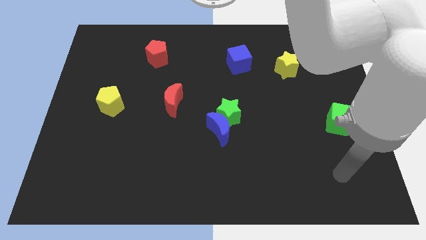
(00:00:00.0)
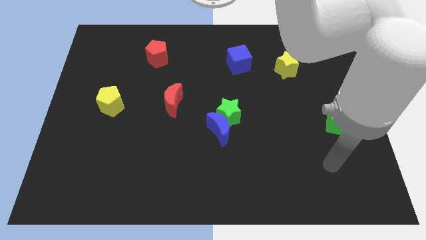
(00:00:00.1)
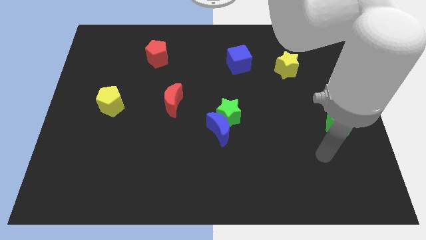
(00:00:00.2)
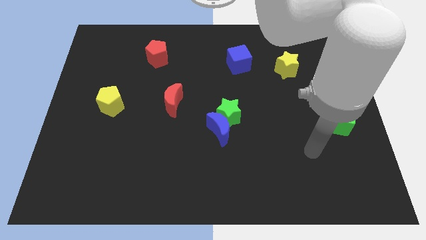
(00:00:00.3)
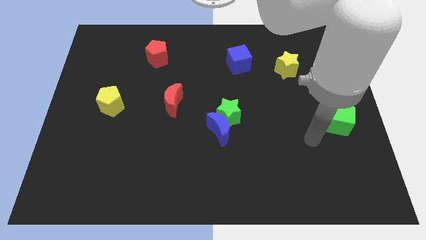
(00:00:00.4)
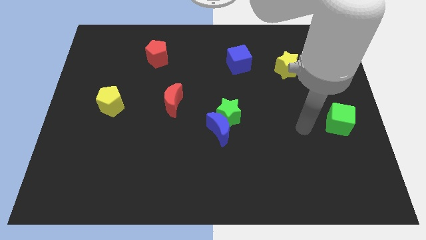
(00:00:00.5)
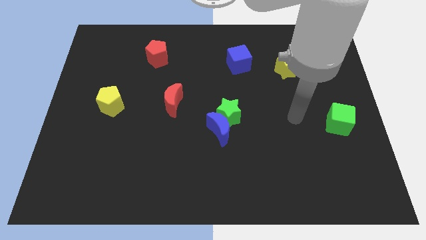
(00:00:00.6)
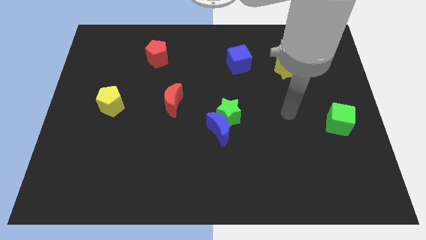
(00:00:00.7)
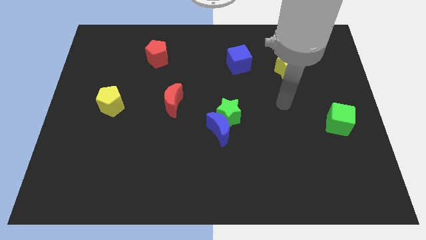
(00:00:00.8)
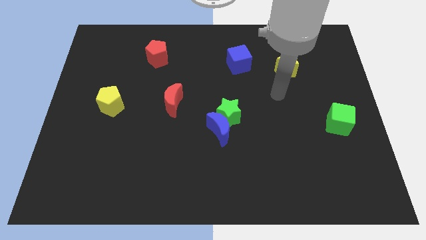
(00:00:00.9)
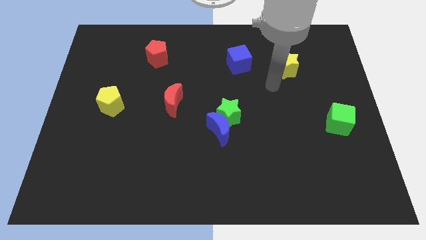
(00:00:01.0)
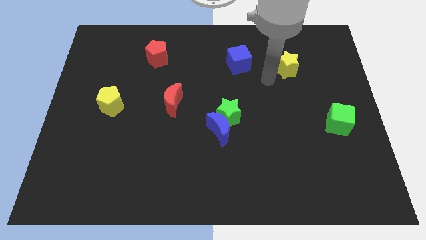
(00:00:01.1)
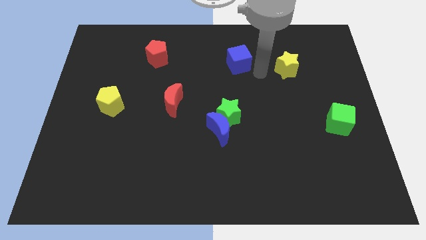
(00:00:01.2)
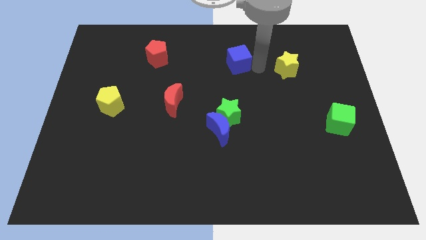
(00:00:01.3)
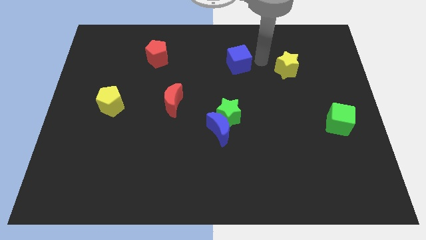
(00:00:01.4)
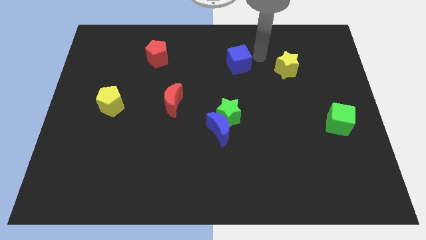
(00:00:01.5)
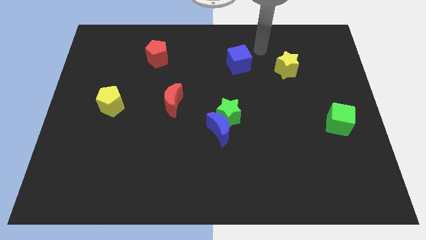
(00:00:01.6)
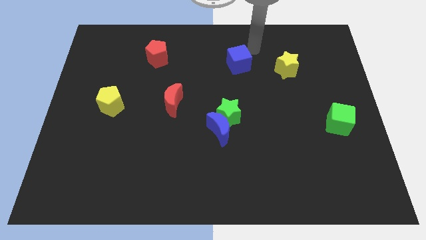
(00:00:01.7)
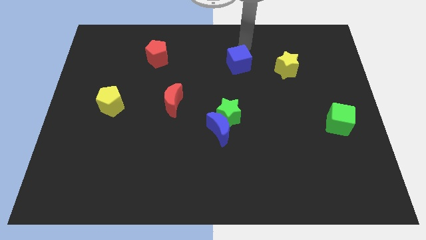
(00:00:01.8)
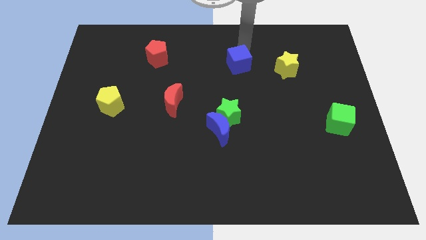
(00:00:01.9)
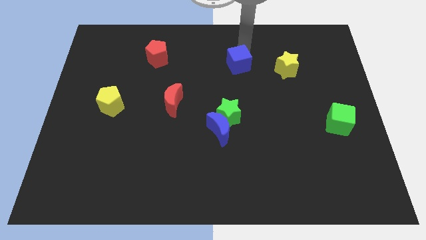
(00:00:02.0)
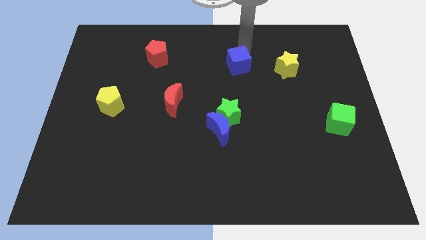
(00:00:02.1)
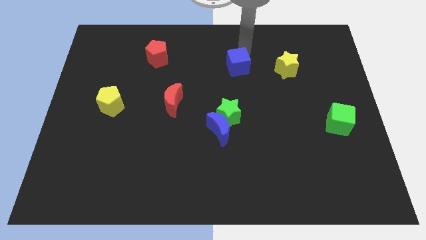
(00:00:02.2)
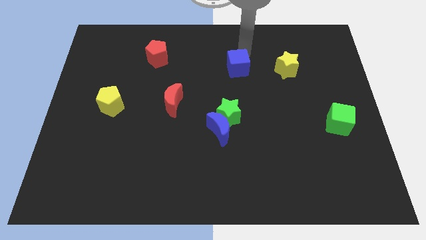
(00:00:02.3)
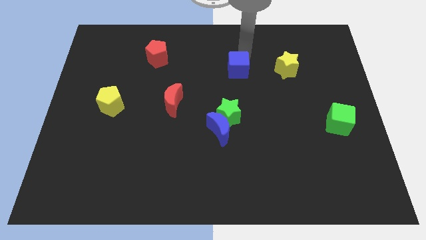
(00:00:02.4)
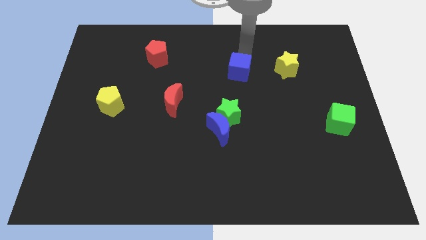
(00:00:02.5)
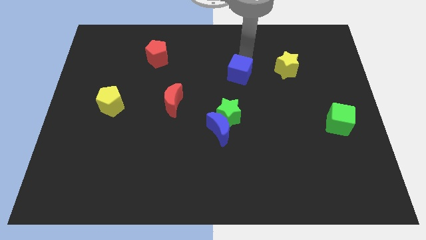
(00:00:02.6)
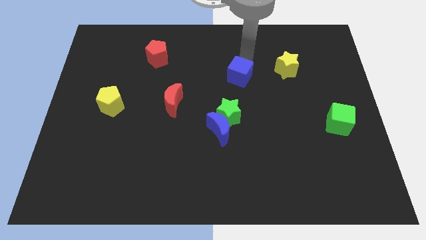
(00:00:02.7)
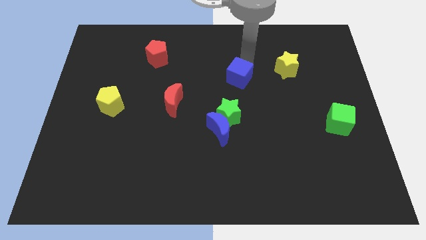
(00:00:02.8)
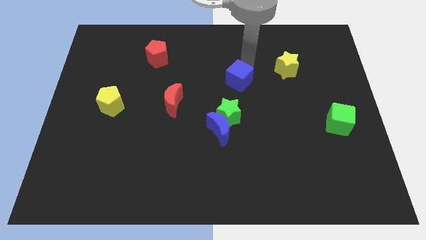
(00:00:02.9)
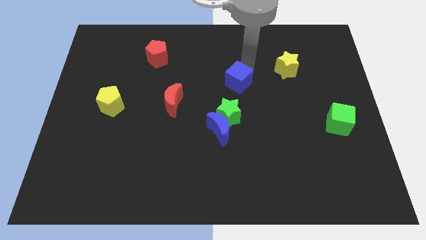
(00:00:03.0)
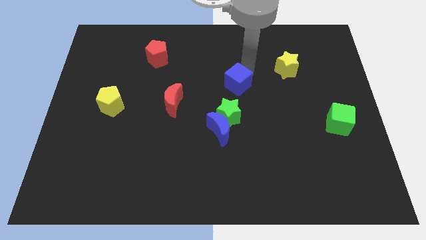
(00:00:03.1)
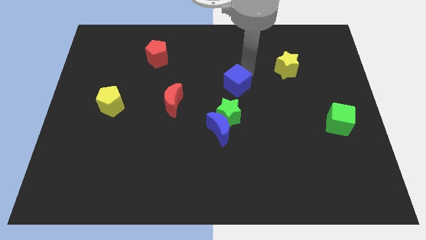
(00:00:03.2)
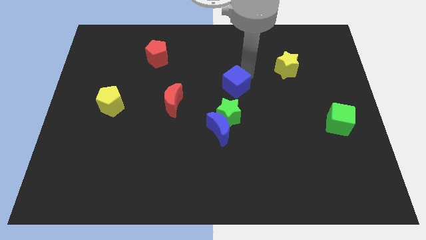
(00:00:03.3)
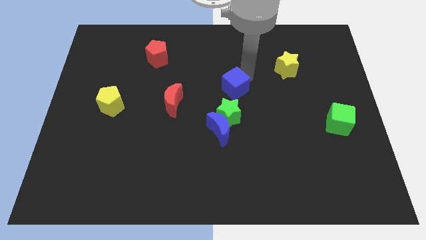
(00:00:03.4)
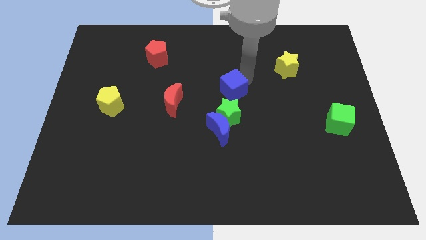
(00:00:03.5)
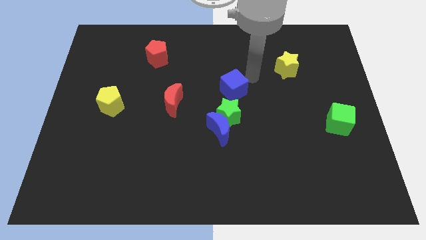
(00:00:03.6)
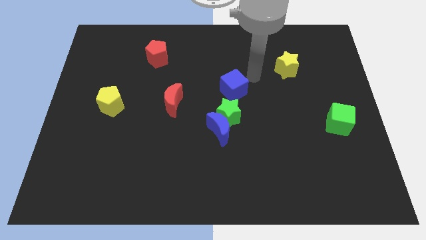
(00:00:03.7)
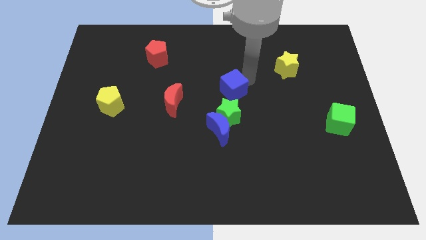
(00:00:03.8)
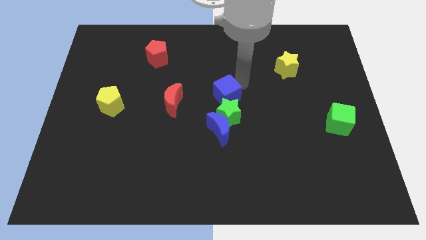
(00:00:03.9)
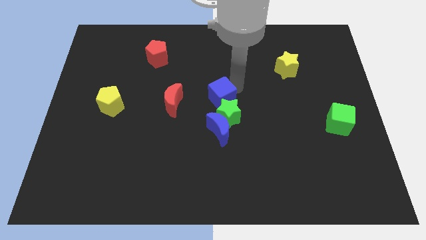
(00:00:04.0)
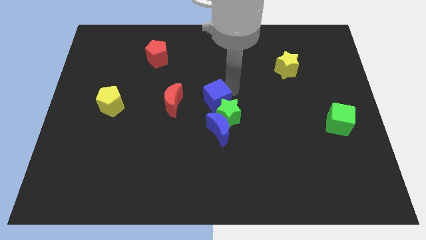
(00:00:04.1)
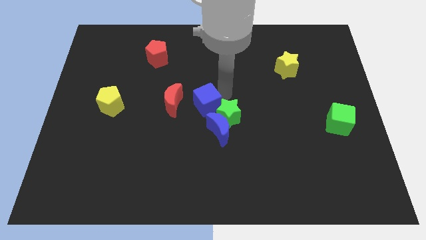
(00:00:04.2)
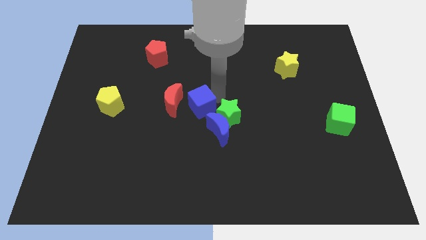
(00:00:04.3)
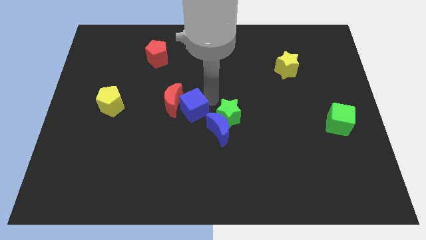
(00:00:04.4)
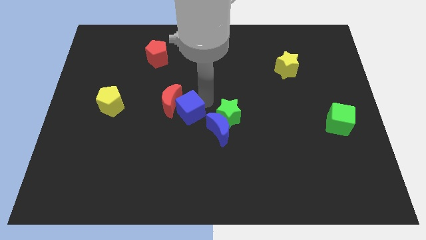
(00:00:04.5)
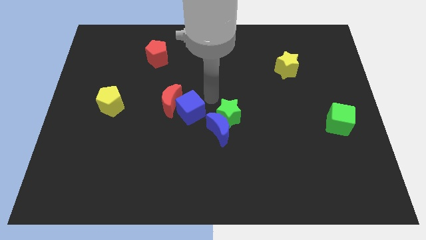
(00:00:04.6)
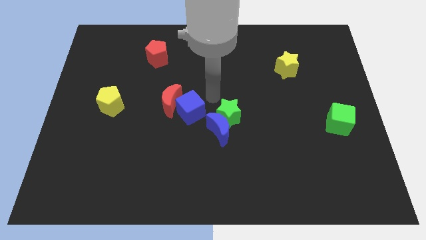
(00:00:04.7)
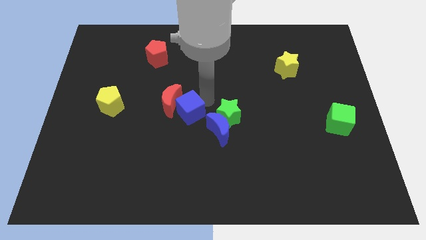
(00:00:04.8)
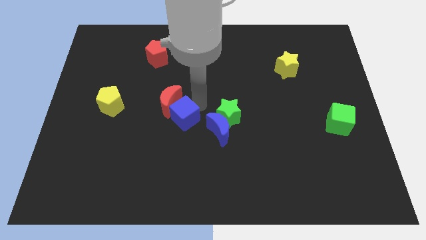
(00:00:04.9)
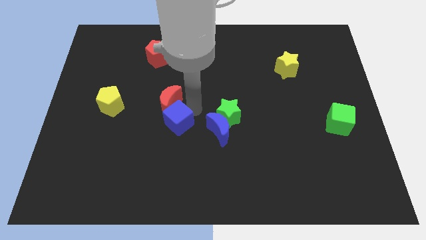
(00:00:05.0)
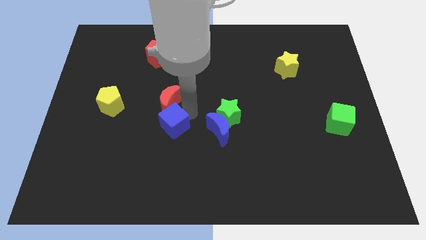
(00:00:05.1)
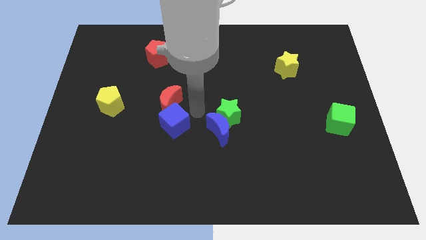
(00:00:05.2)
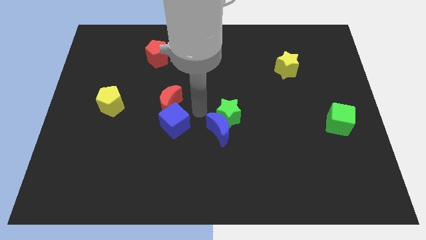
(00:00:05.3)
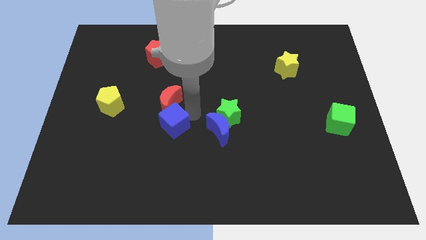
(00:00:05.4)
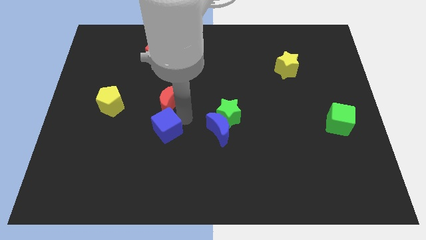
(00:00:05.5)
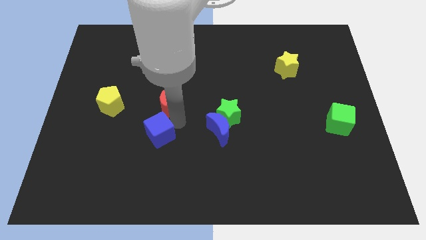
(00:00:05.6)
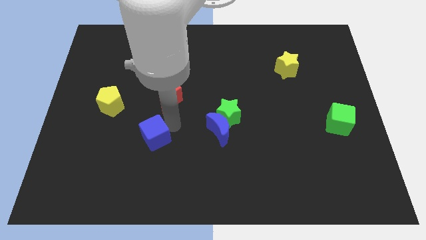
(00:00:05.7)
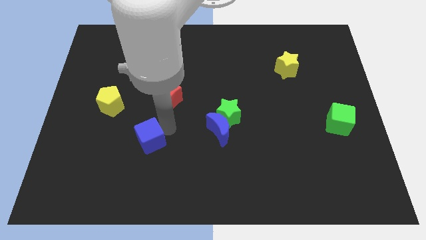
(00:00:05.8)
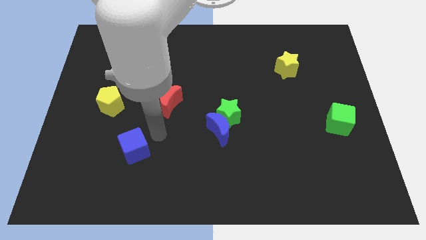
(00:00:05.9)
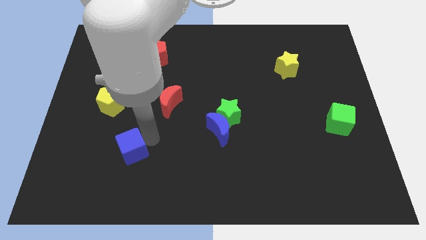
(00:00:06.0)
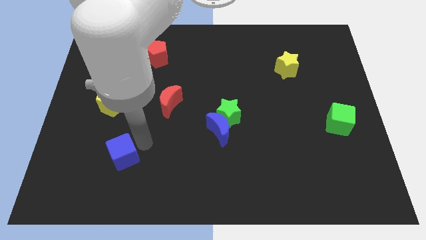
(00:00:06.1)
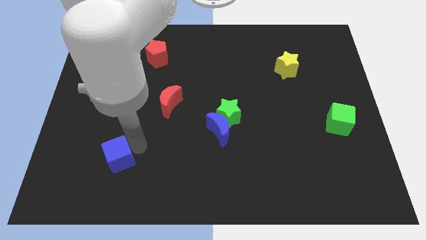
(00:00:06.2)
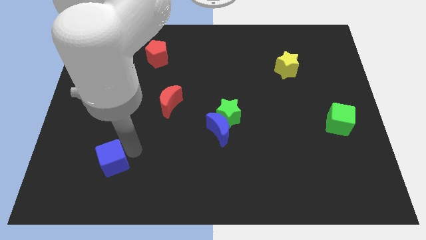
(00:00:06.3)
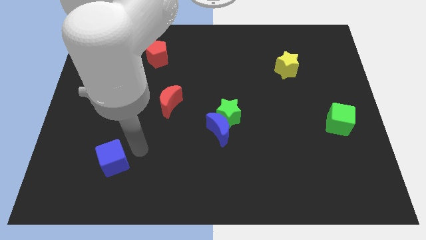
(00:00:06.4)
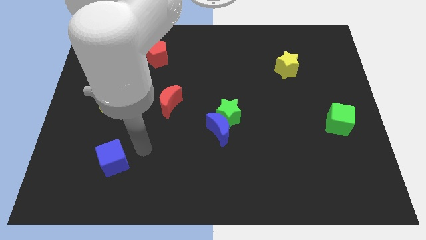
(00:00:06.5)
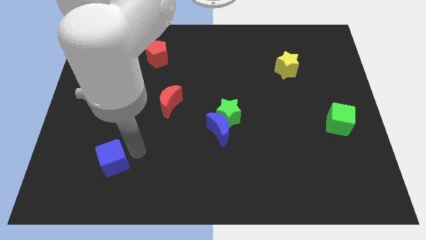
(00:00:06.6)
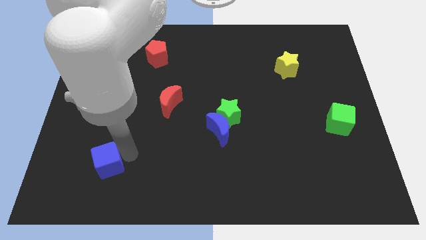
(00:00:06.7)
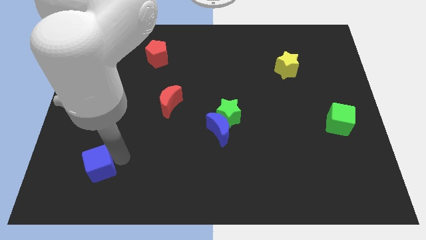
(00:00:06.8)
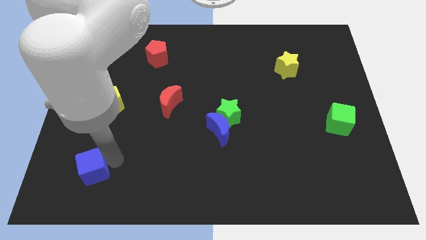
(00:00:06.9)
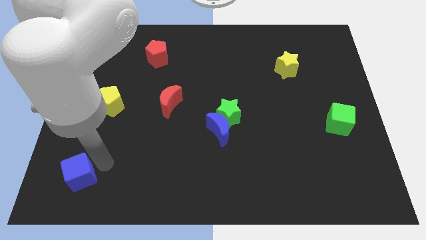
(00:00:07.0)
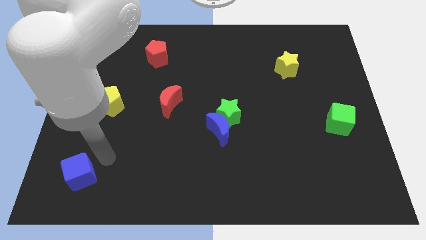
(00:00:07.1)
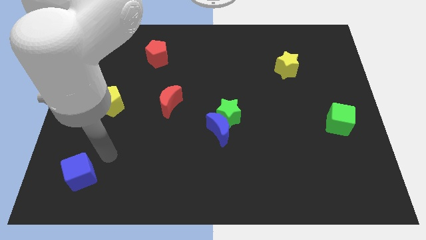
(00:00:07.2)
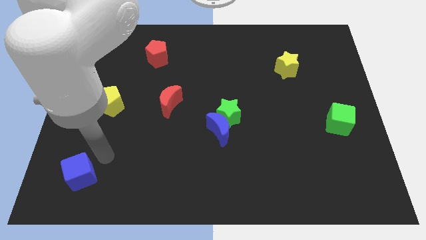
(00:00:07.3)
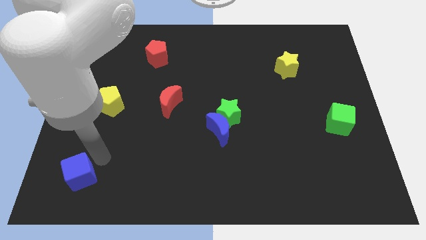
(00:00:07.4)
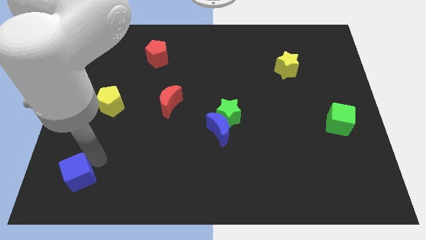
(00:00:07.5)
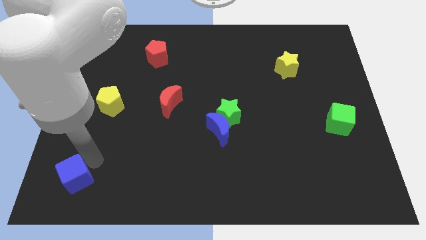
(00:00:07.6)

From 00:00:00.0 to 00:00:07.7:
move the blue cube to the bottom left corner
